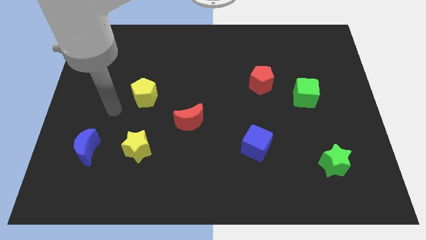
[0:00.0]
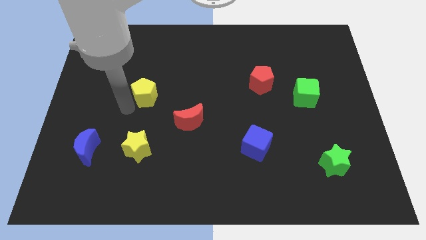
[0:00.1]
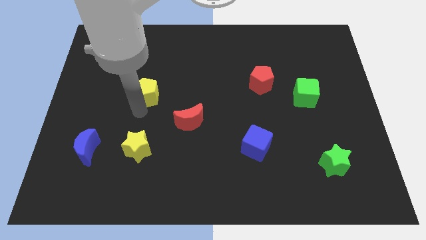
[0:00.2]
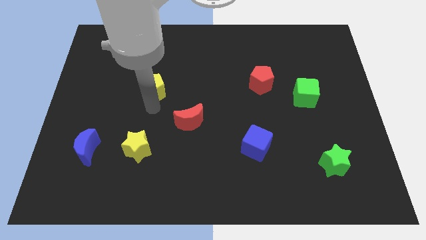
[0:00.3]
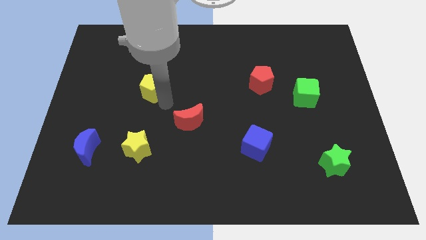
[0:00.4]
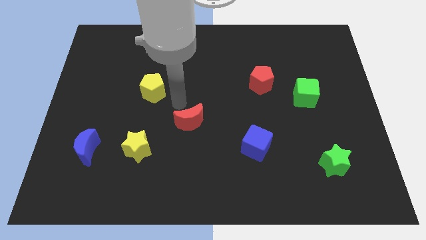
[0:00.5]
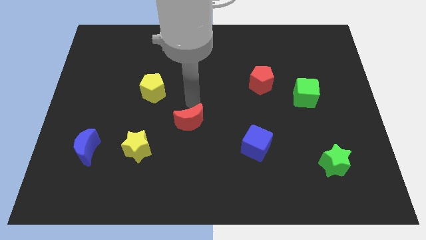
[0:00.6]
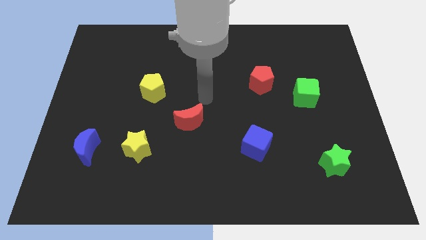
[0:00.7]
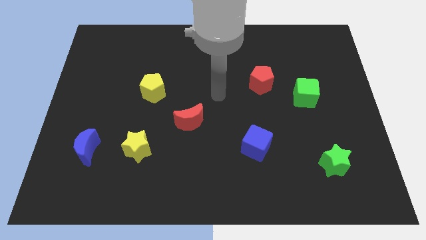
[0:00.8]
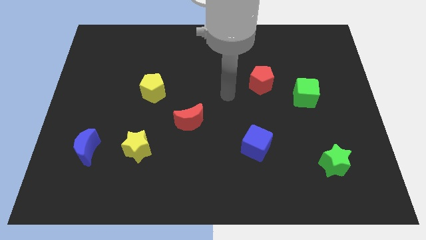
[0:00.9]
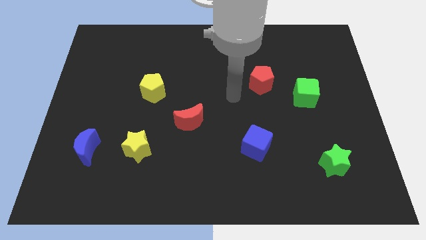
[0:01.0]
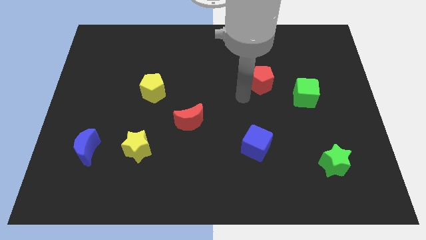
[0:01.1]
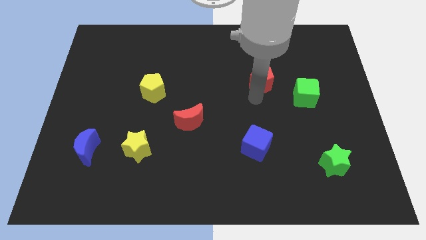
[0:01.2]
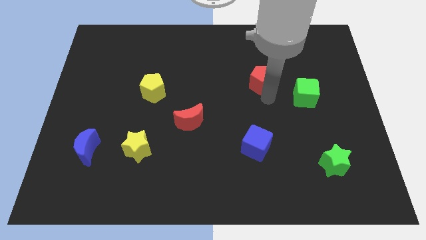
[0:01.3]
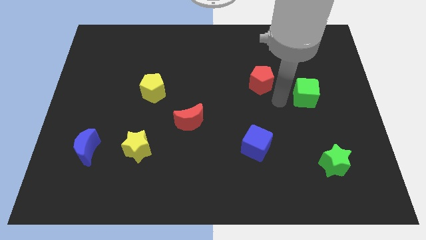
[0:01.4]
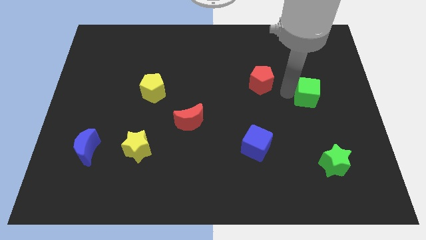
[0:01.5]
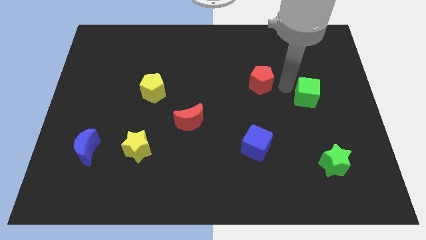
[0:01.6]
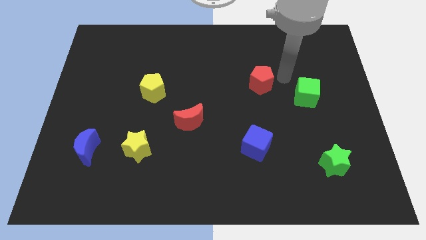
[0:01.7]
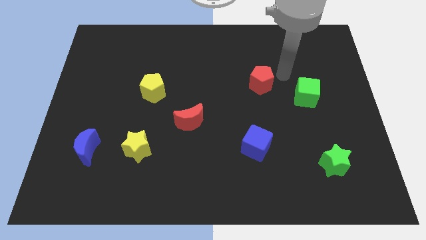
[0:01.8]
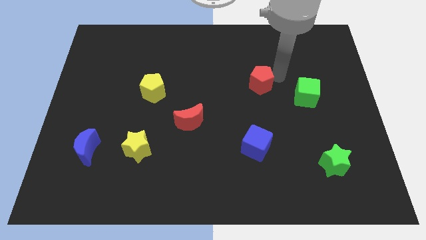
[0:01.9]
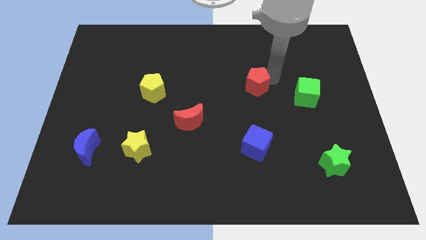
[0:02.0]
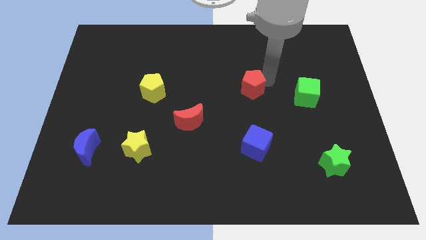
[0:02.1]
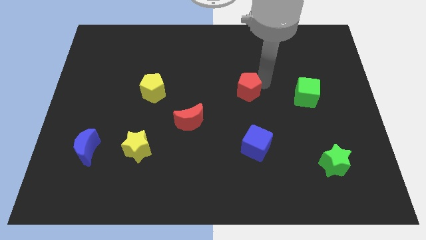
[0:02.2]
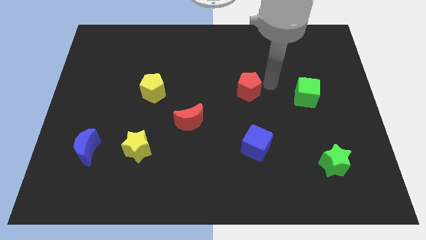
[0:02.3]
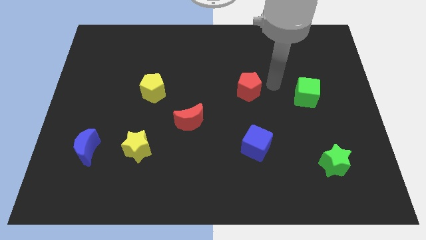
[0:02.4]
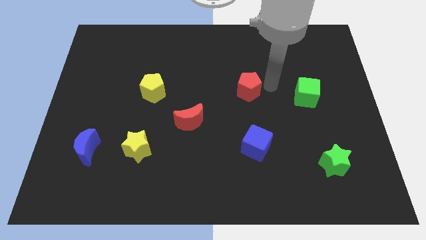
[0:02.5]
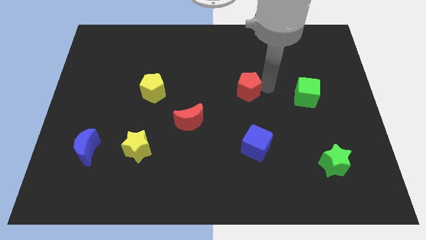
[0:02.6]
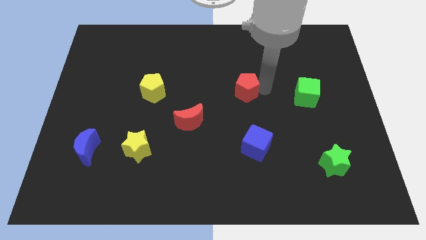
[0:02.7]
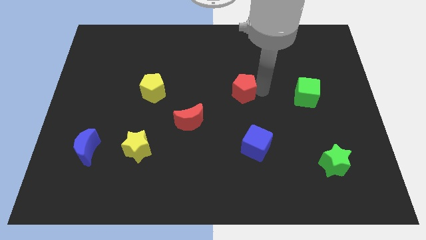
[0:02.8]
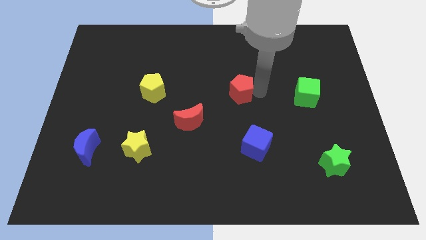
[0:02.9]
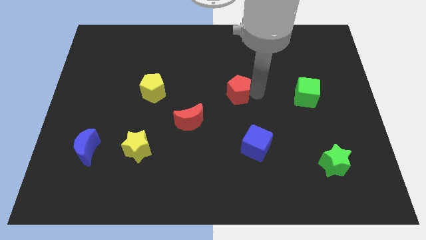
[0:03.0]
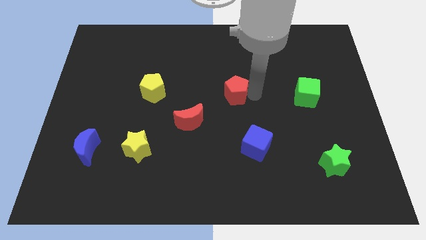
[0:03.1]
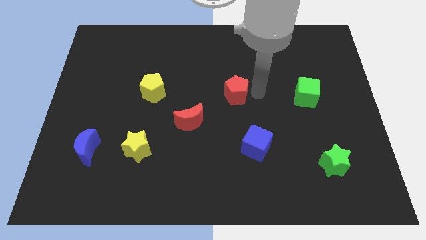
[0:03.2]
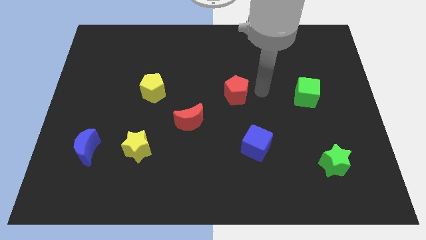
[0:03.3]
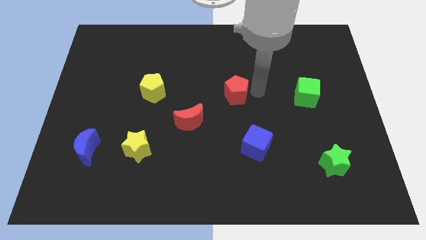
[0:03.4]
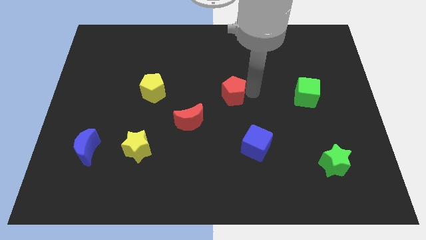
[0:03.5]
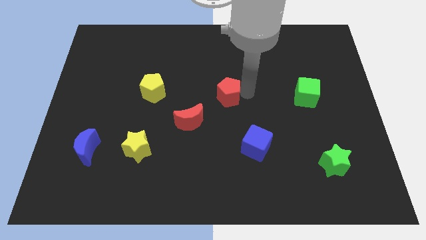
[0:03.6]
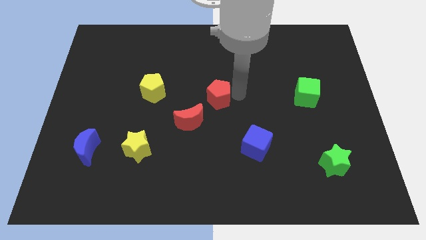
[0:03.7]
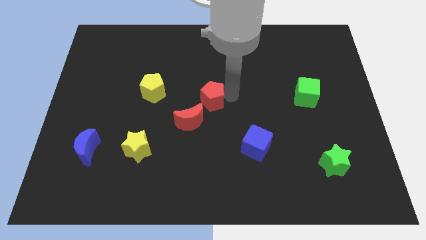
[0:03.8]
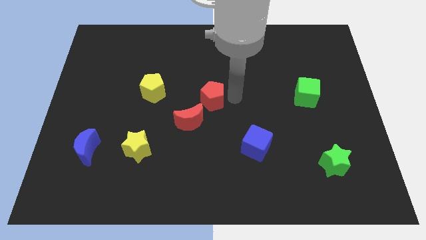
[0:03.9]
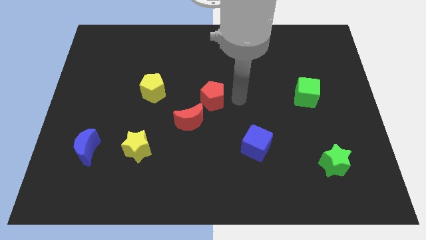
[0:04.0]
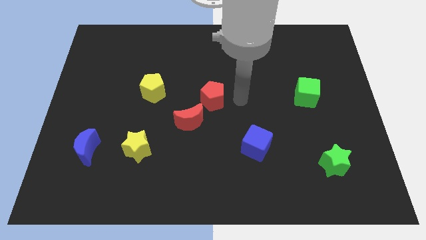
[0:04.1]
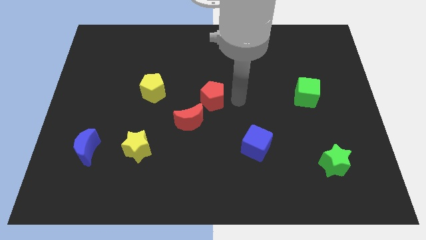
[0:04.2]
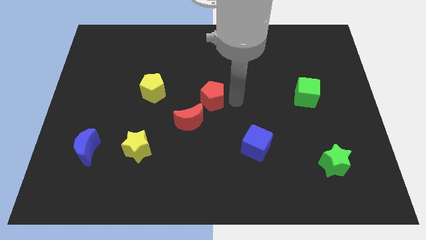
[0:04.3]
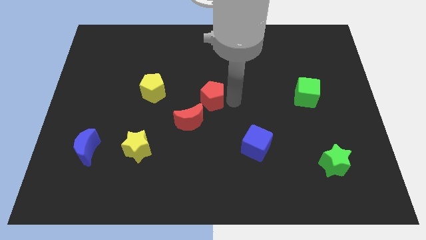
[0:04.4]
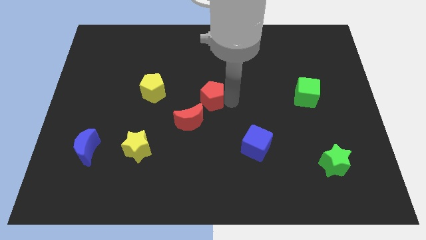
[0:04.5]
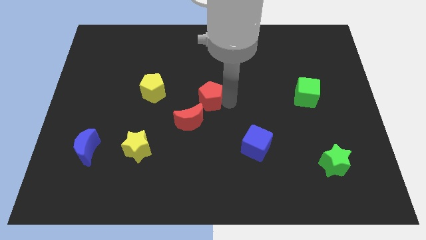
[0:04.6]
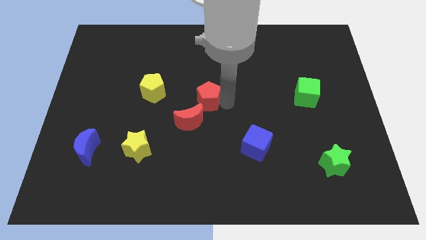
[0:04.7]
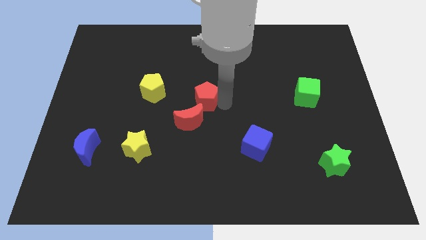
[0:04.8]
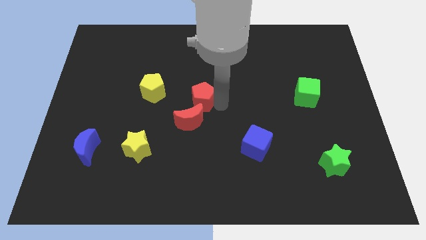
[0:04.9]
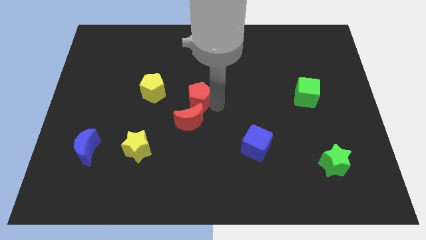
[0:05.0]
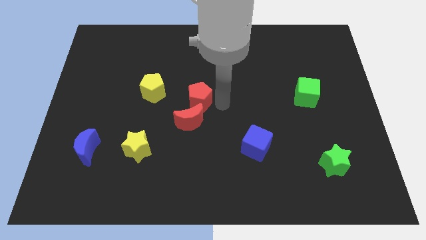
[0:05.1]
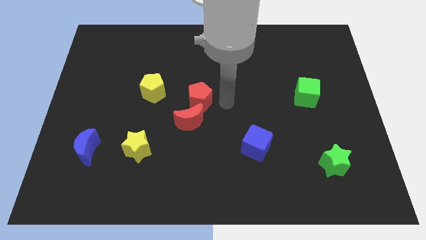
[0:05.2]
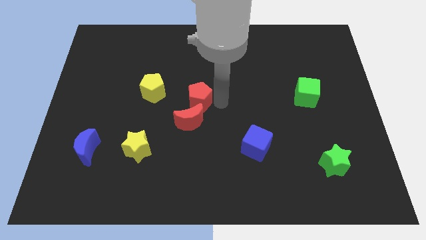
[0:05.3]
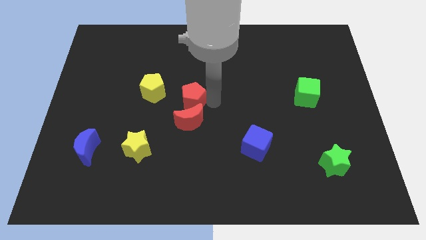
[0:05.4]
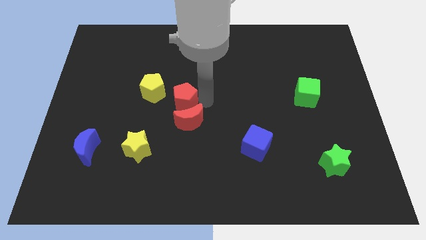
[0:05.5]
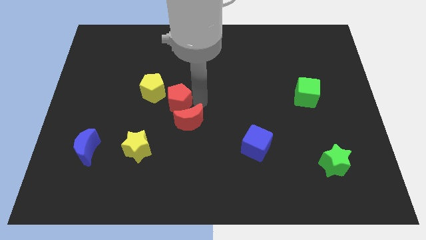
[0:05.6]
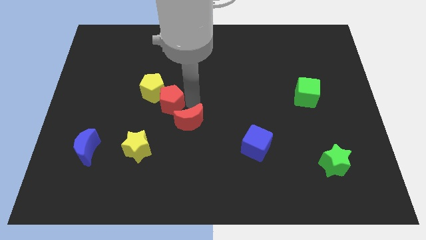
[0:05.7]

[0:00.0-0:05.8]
slide the red pentagon next to the yellow pentagon

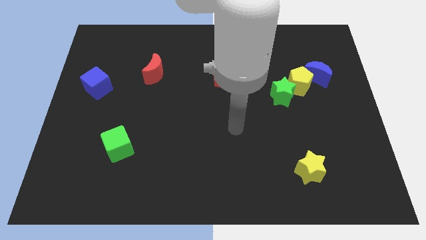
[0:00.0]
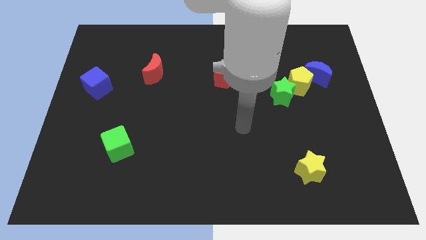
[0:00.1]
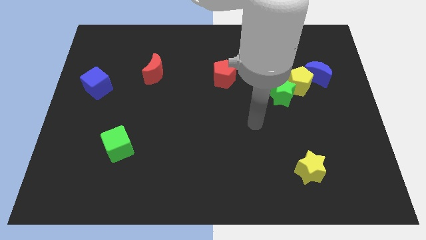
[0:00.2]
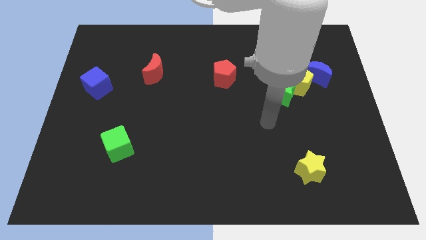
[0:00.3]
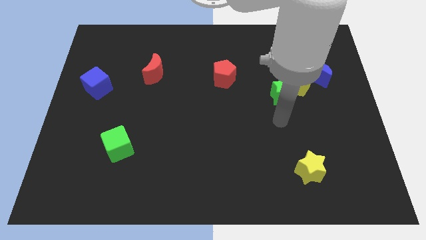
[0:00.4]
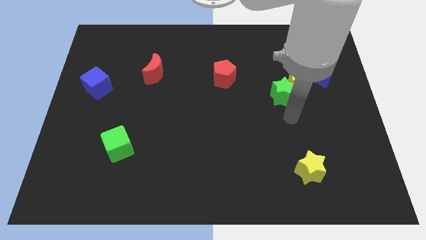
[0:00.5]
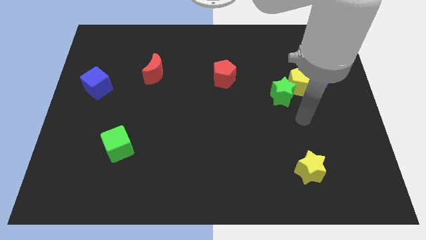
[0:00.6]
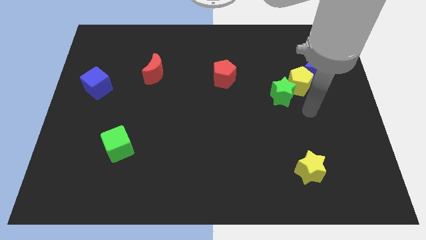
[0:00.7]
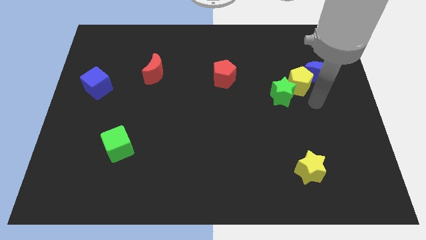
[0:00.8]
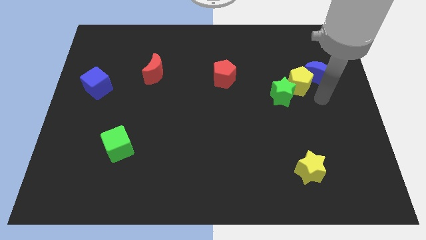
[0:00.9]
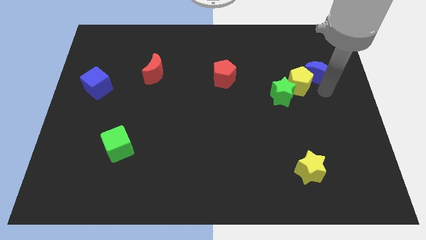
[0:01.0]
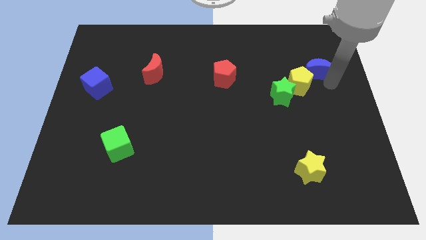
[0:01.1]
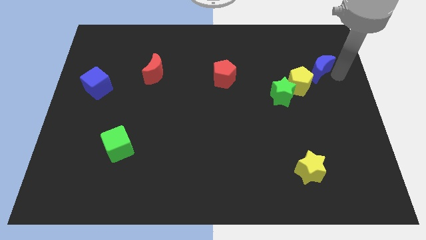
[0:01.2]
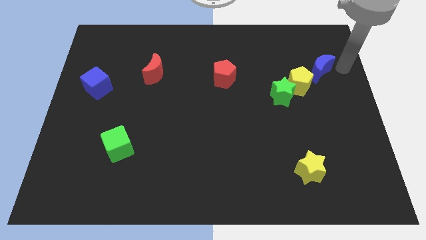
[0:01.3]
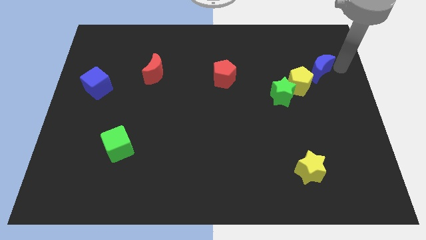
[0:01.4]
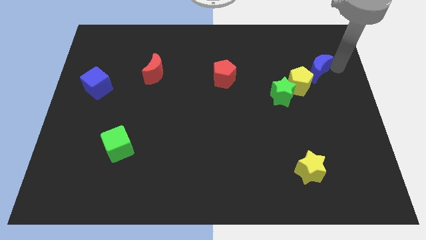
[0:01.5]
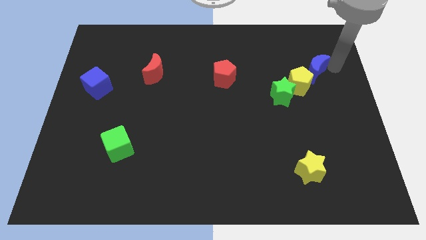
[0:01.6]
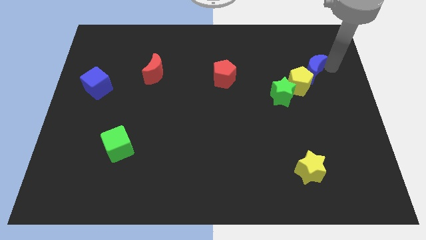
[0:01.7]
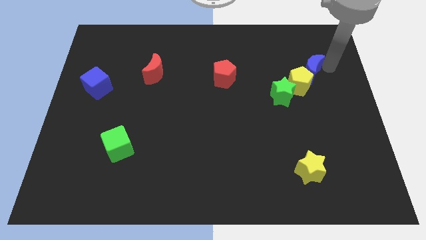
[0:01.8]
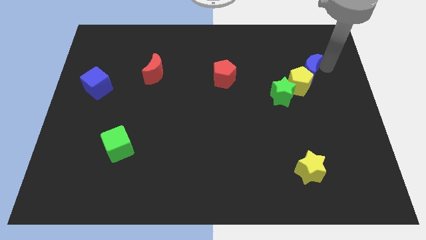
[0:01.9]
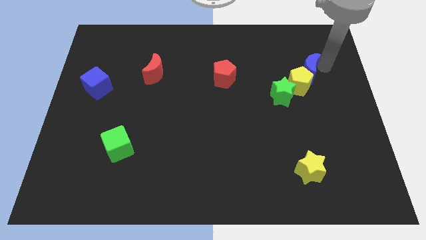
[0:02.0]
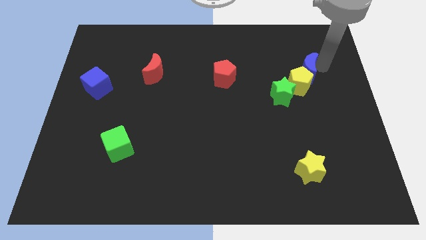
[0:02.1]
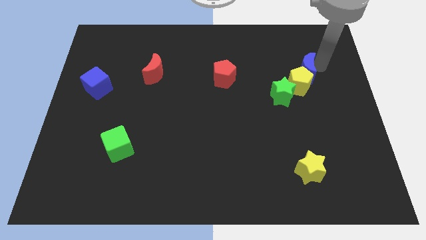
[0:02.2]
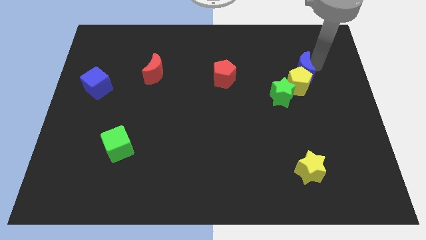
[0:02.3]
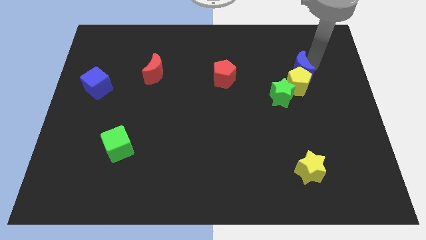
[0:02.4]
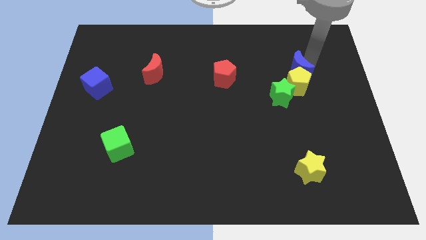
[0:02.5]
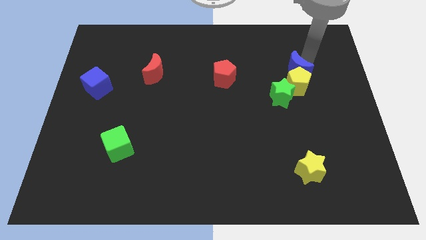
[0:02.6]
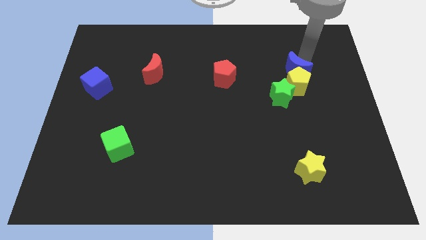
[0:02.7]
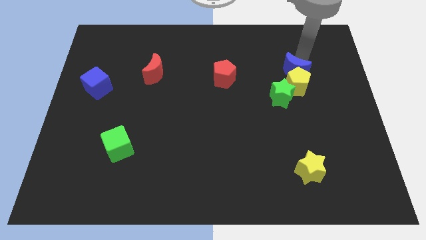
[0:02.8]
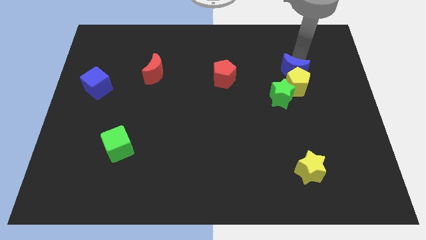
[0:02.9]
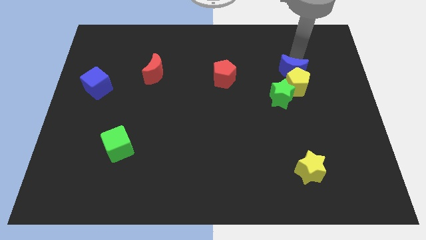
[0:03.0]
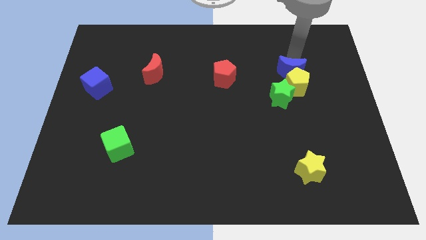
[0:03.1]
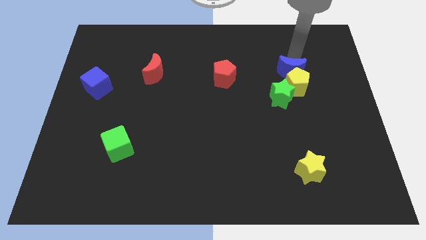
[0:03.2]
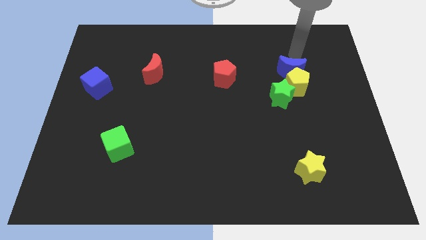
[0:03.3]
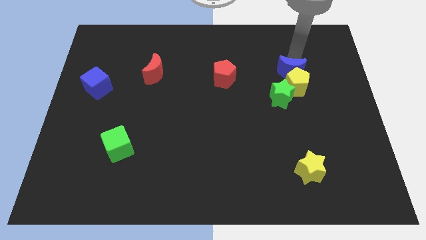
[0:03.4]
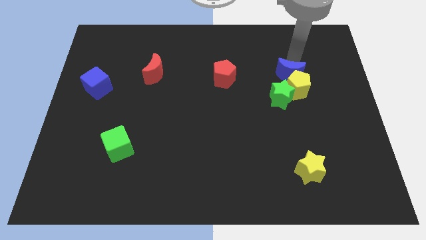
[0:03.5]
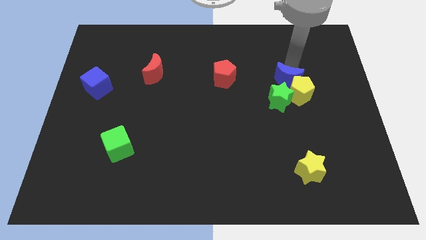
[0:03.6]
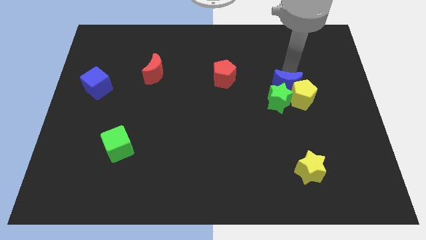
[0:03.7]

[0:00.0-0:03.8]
move the blue moon next to the green star
